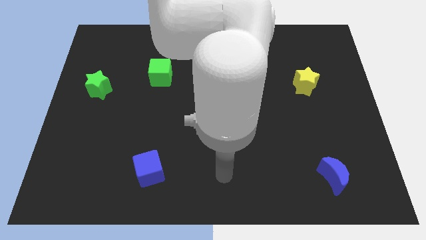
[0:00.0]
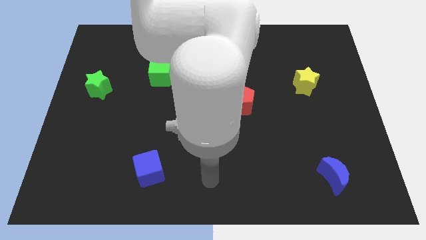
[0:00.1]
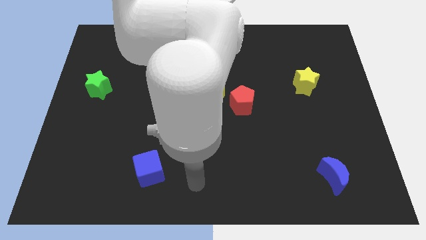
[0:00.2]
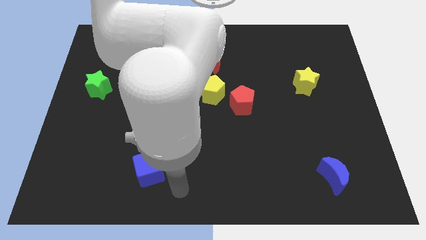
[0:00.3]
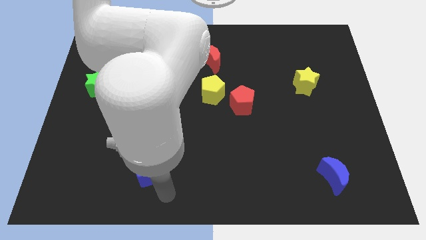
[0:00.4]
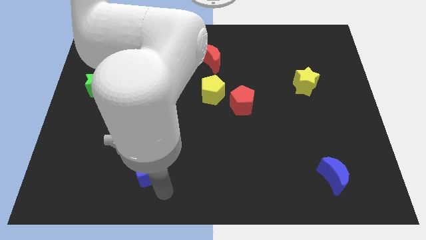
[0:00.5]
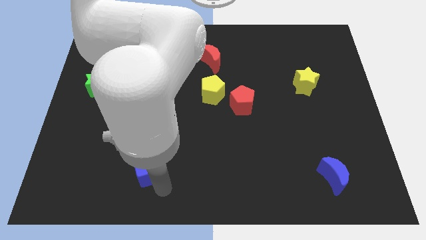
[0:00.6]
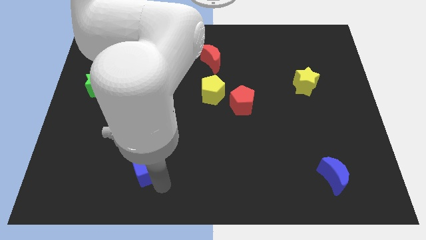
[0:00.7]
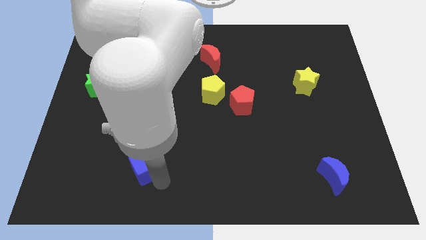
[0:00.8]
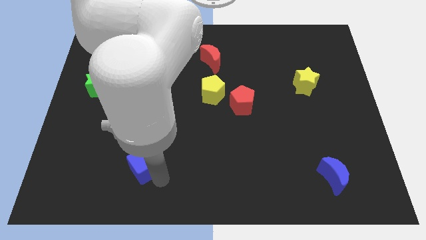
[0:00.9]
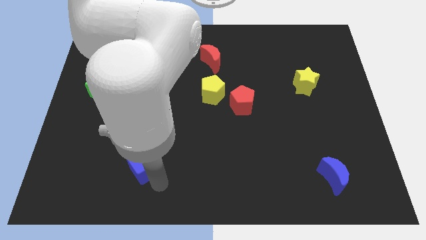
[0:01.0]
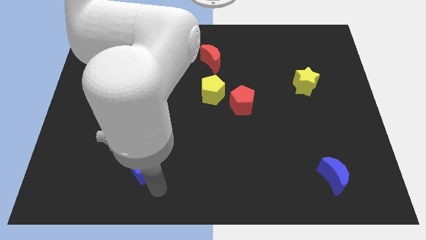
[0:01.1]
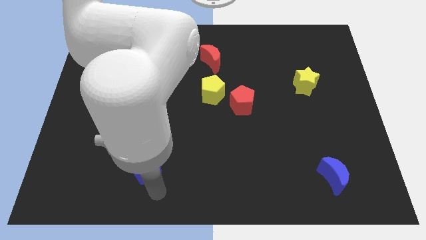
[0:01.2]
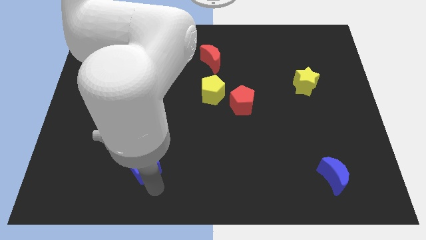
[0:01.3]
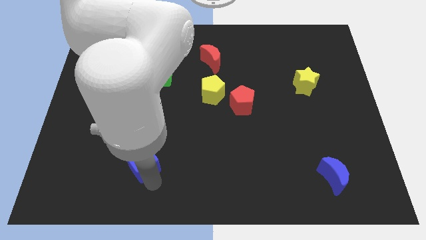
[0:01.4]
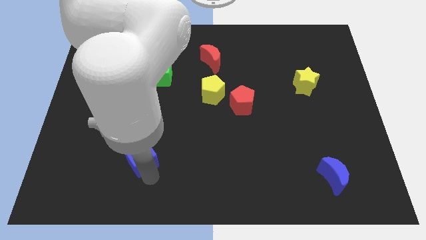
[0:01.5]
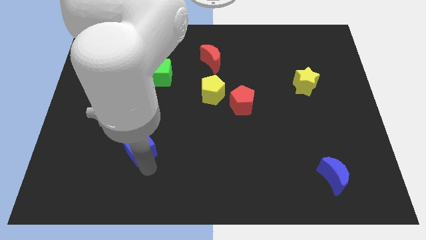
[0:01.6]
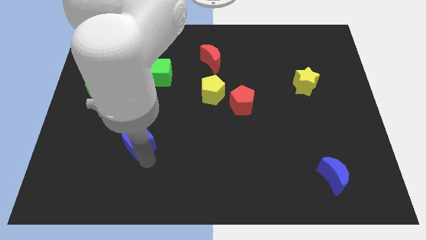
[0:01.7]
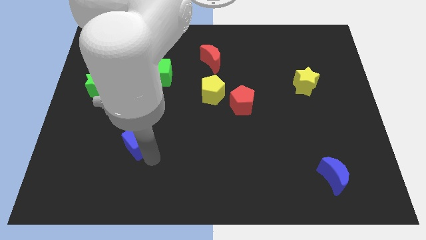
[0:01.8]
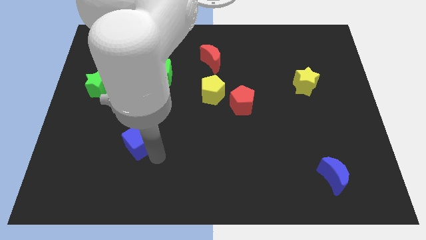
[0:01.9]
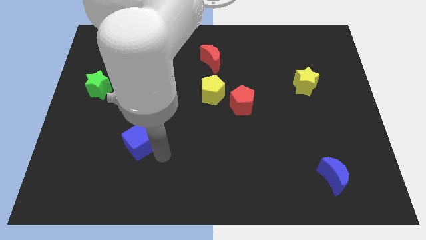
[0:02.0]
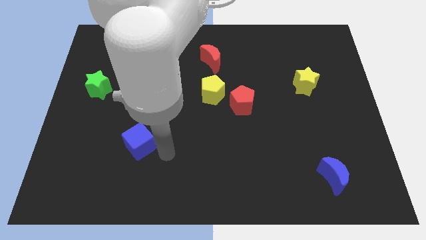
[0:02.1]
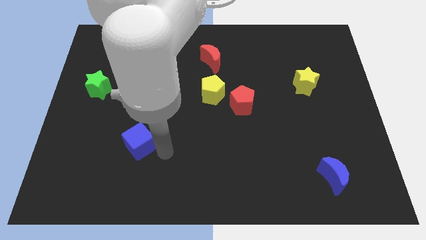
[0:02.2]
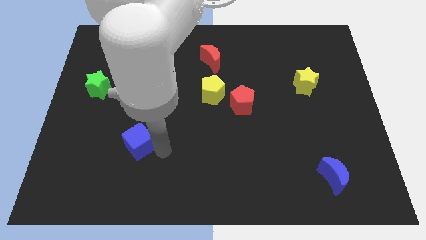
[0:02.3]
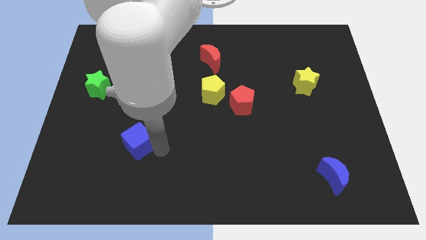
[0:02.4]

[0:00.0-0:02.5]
push the blue cube a little bit up and to the left

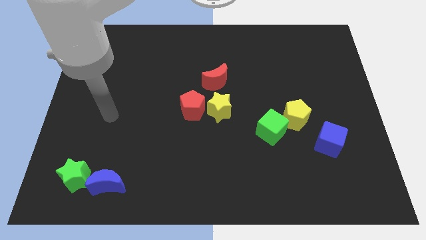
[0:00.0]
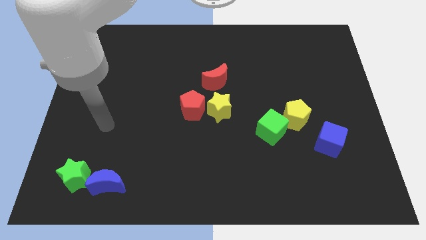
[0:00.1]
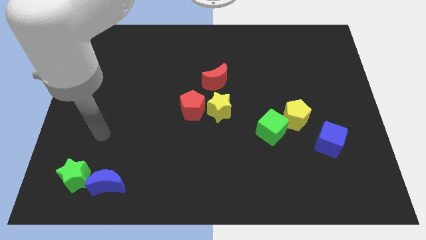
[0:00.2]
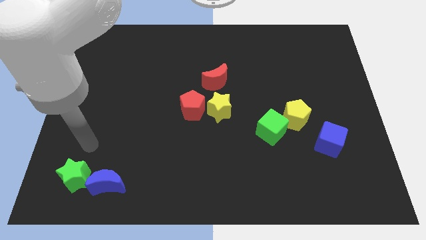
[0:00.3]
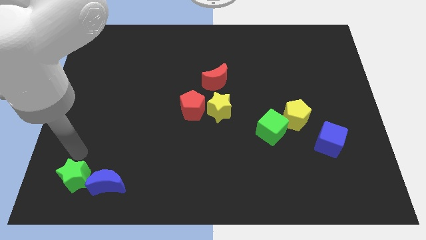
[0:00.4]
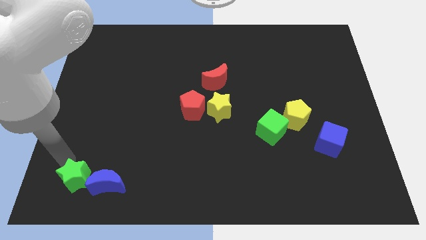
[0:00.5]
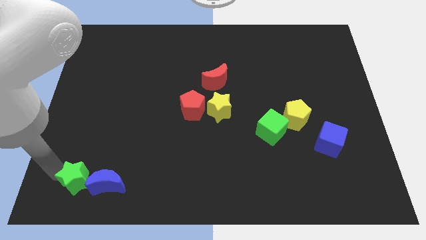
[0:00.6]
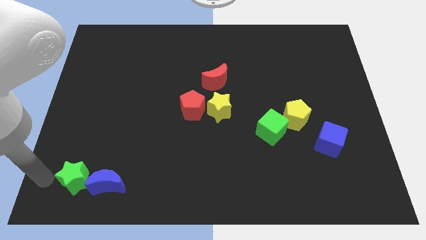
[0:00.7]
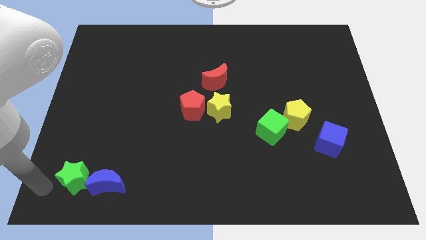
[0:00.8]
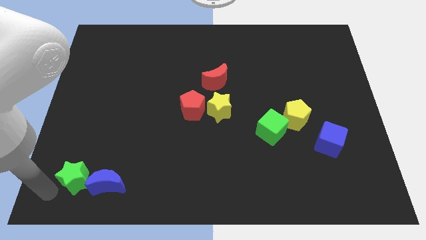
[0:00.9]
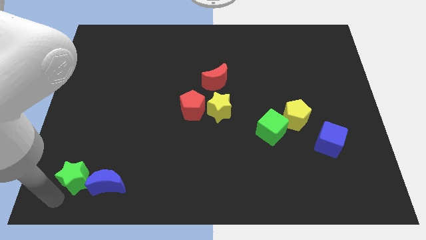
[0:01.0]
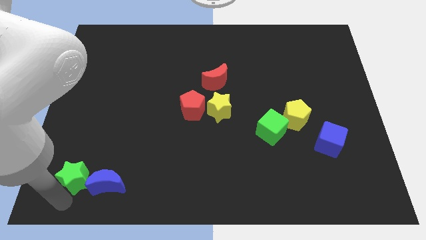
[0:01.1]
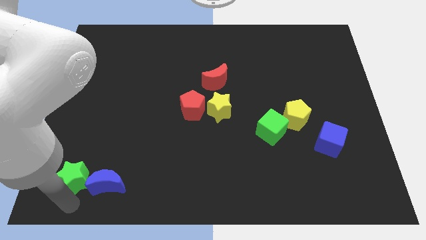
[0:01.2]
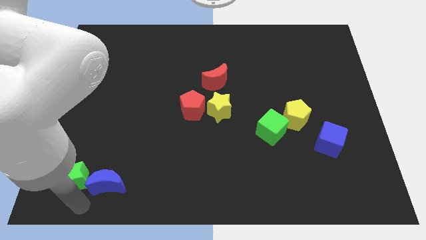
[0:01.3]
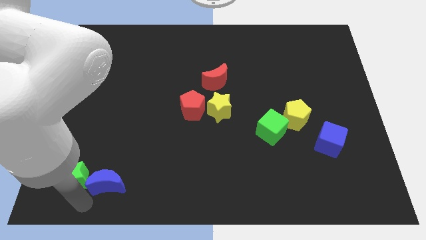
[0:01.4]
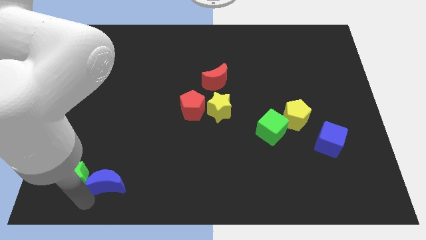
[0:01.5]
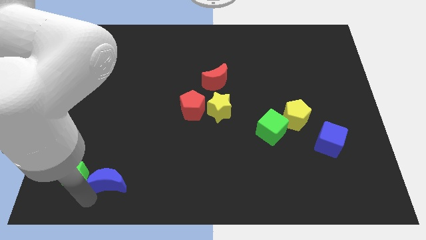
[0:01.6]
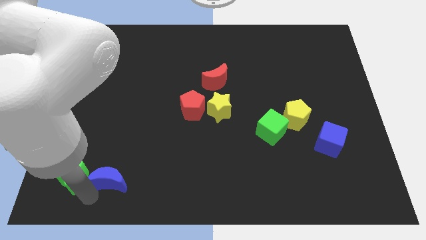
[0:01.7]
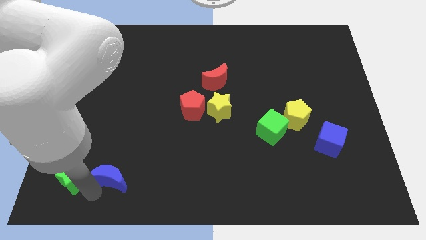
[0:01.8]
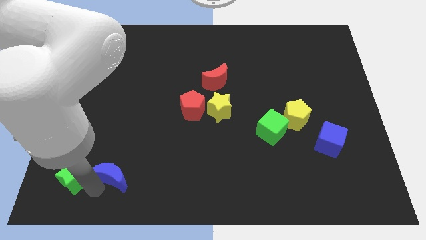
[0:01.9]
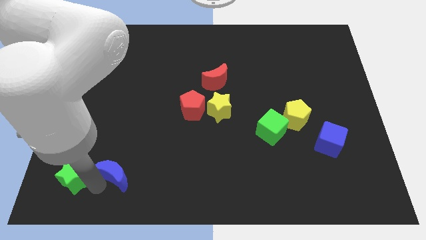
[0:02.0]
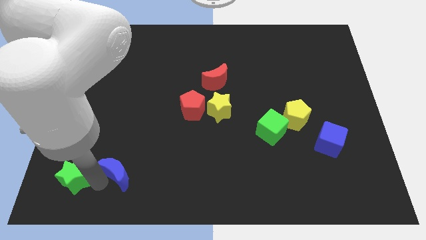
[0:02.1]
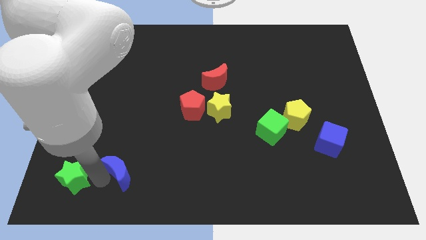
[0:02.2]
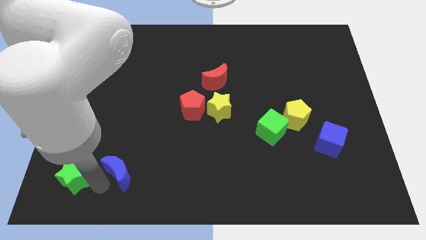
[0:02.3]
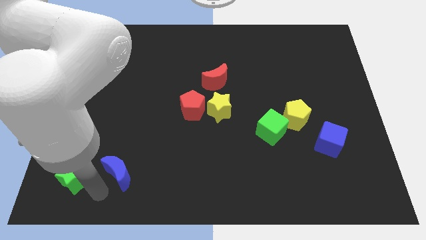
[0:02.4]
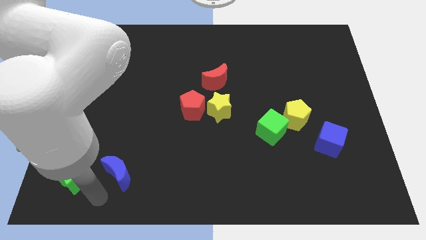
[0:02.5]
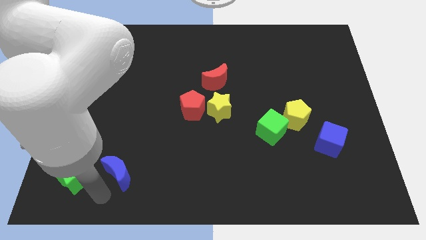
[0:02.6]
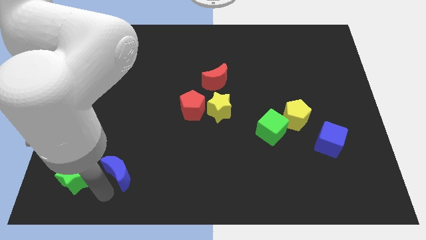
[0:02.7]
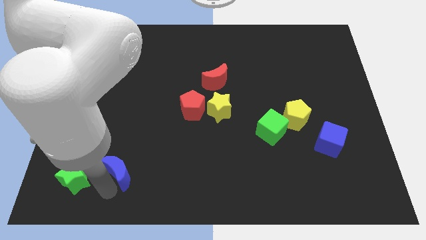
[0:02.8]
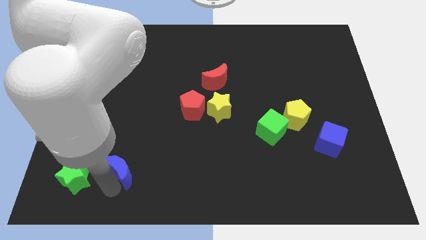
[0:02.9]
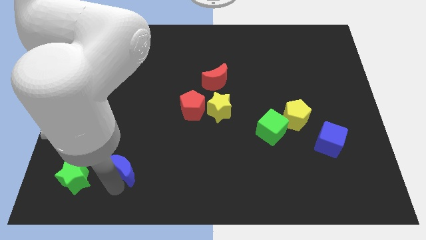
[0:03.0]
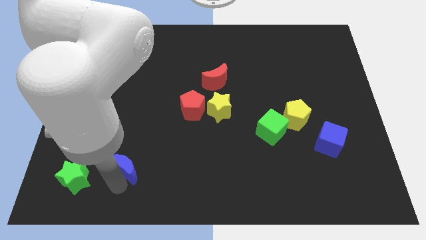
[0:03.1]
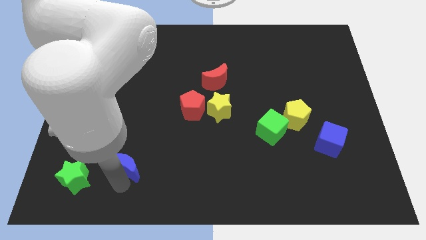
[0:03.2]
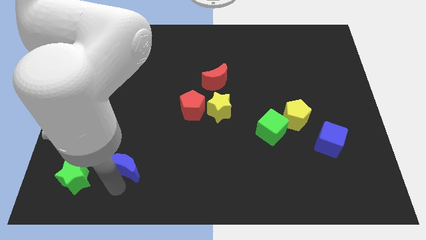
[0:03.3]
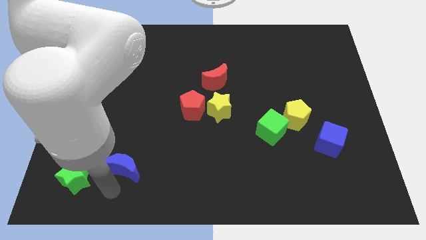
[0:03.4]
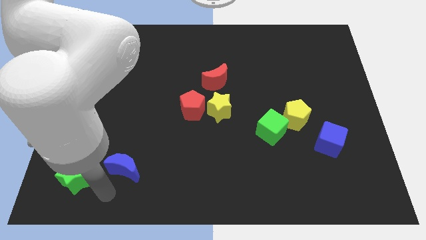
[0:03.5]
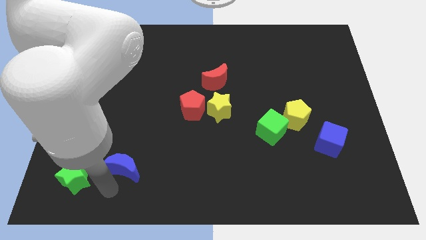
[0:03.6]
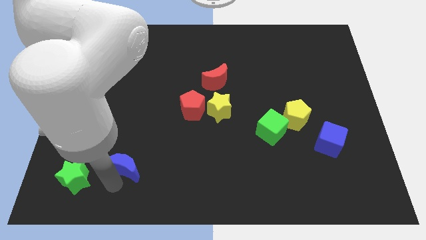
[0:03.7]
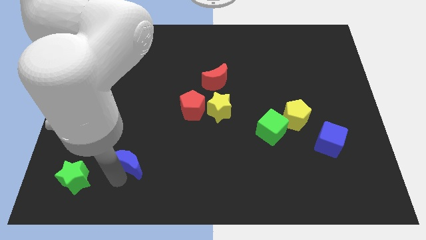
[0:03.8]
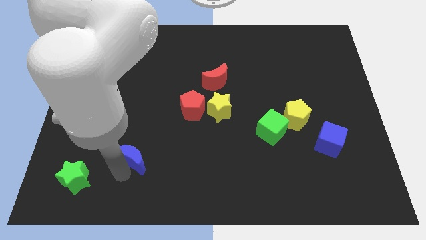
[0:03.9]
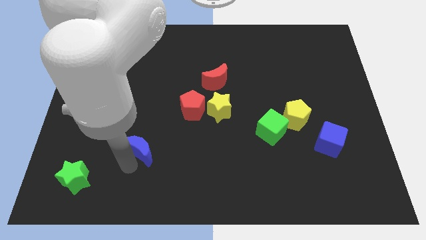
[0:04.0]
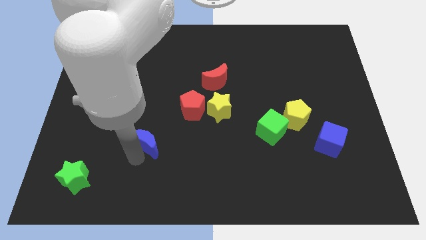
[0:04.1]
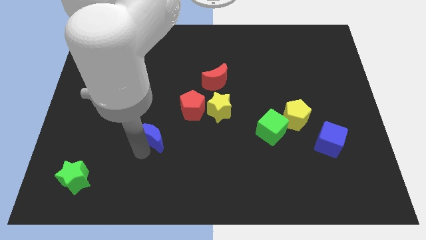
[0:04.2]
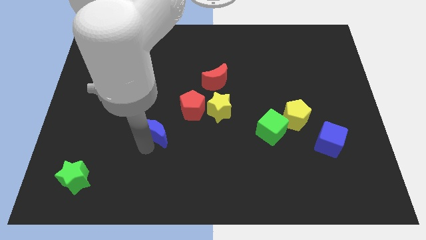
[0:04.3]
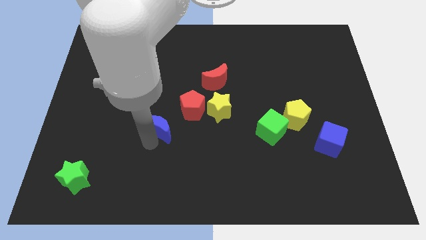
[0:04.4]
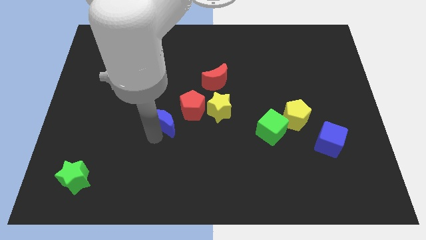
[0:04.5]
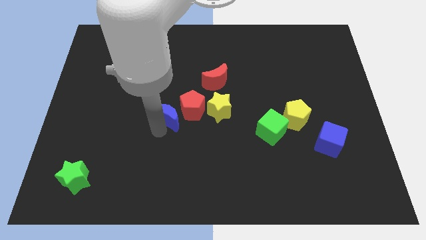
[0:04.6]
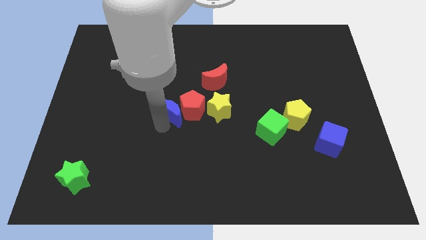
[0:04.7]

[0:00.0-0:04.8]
move the blue moon diagonally upwards and right

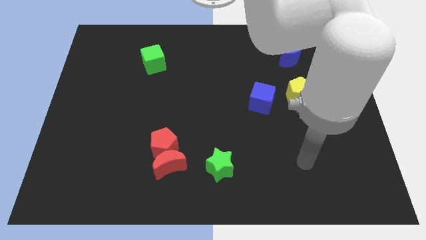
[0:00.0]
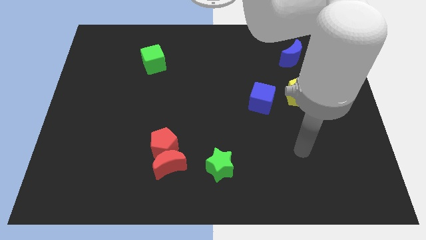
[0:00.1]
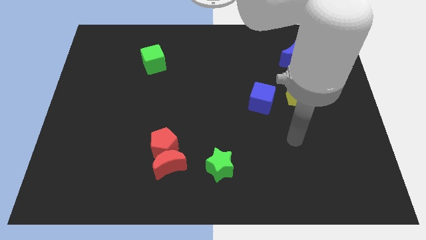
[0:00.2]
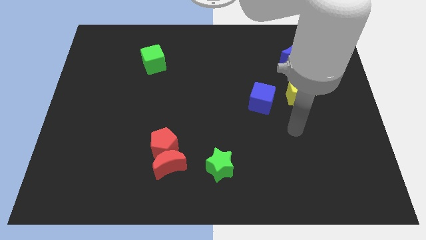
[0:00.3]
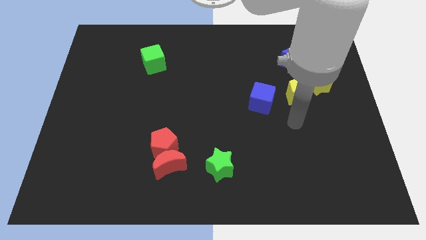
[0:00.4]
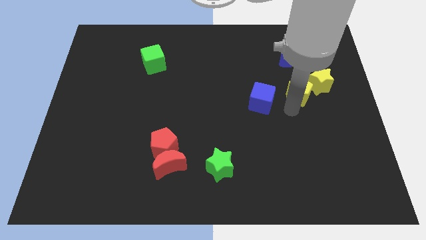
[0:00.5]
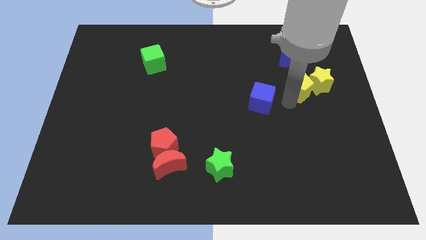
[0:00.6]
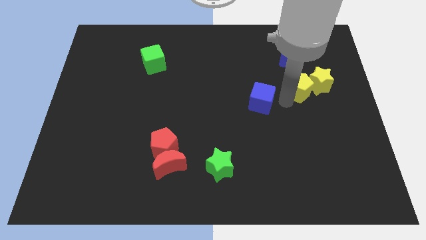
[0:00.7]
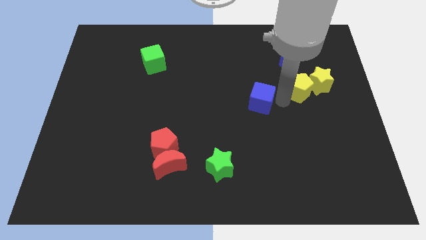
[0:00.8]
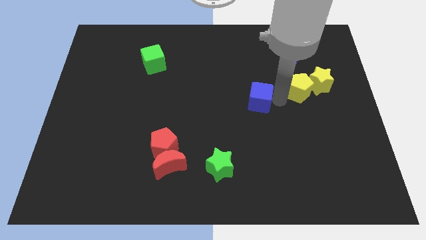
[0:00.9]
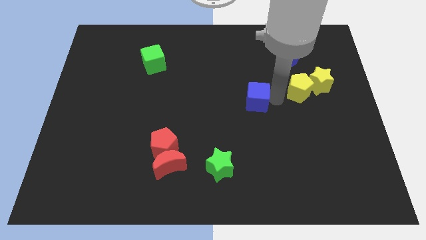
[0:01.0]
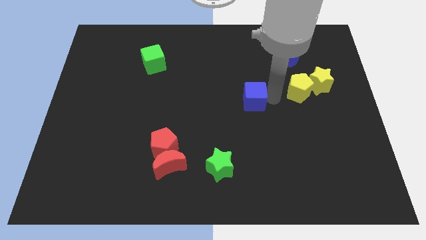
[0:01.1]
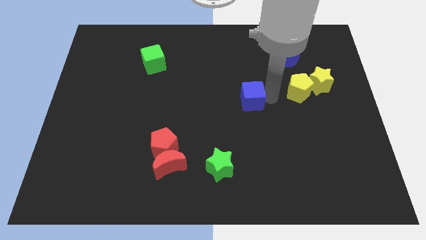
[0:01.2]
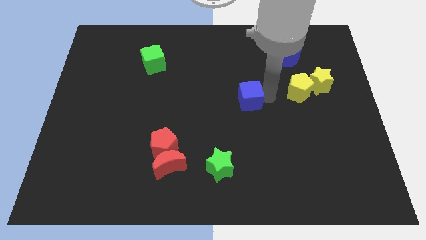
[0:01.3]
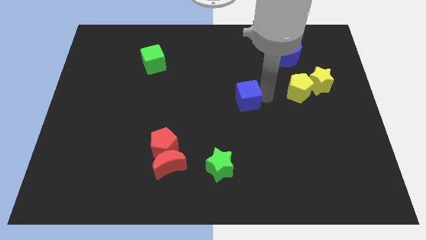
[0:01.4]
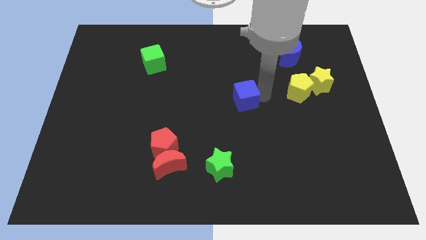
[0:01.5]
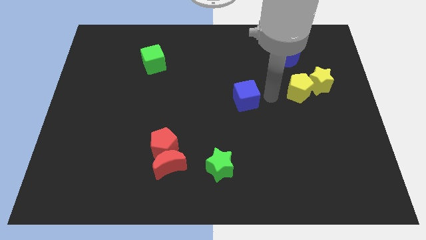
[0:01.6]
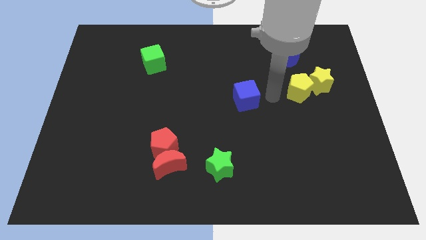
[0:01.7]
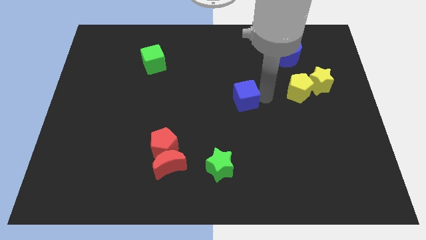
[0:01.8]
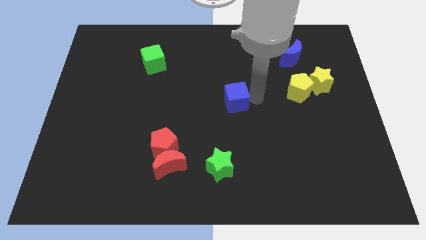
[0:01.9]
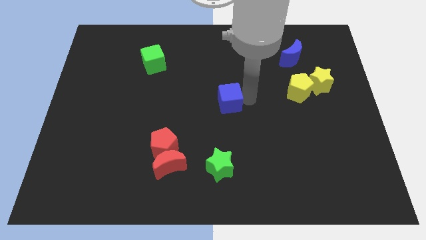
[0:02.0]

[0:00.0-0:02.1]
slightly move the blue cube to the left
